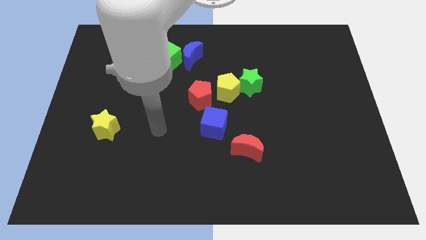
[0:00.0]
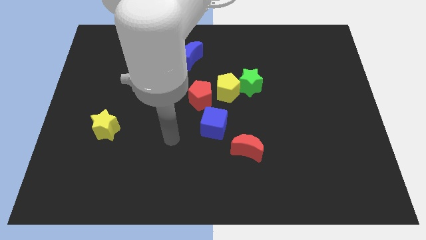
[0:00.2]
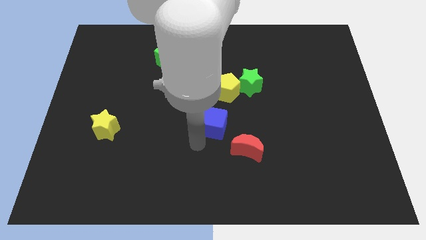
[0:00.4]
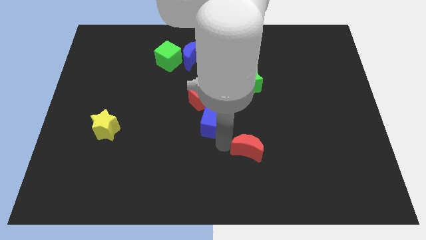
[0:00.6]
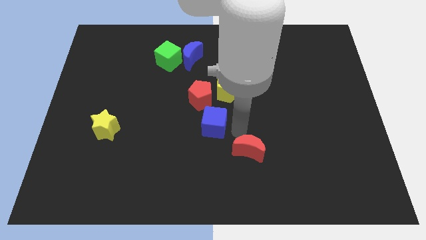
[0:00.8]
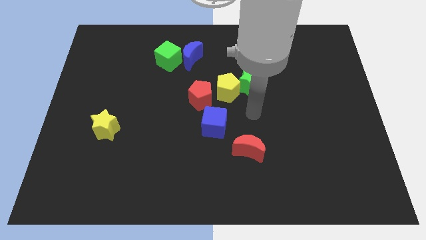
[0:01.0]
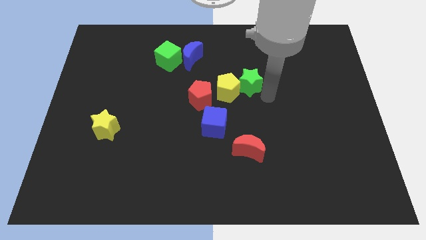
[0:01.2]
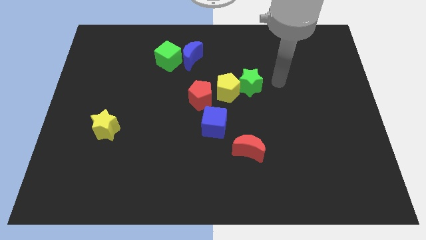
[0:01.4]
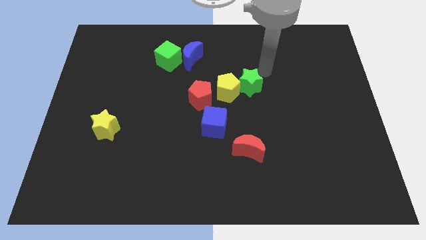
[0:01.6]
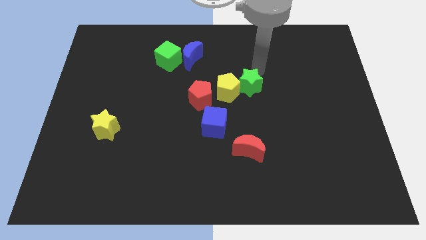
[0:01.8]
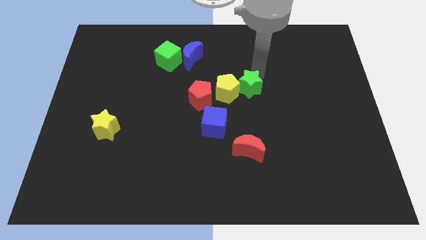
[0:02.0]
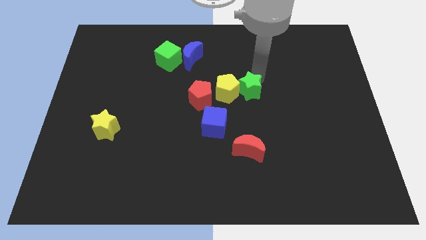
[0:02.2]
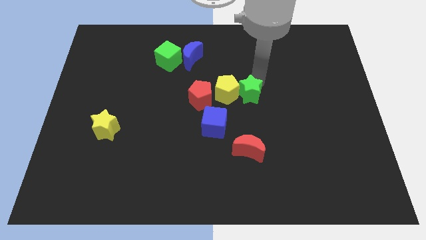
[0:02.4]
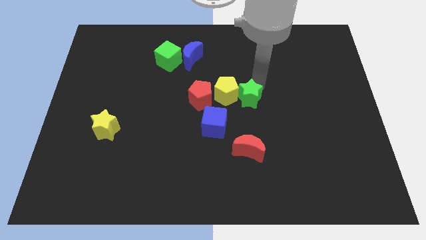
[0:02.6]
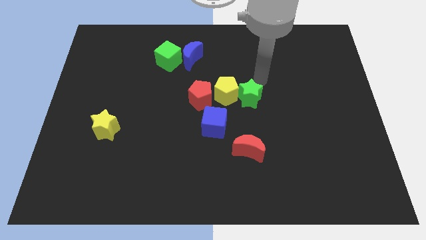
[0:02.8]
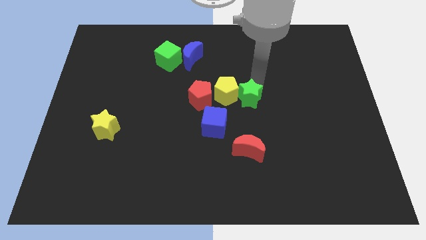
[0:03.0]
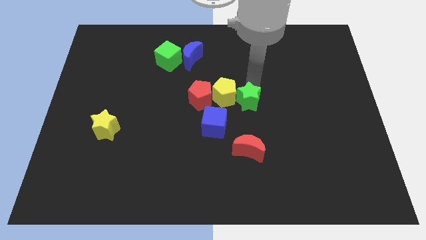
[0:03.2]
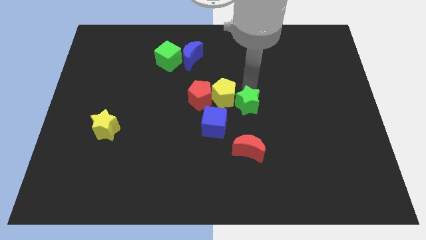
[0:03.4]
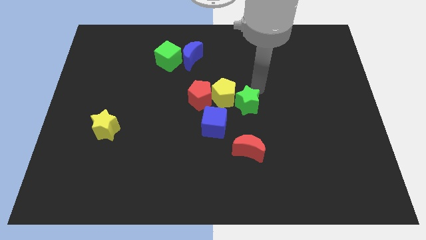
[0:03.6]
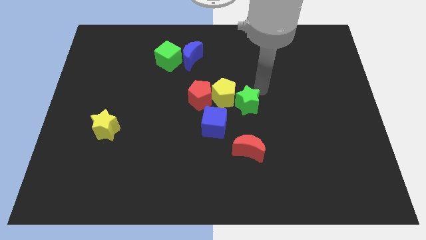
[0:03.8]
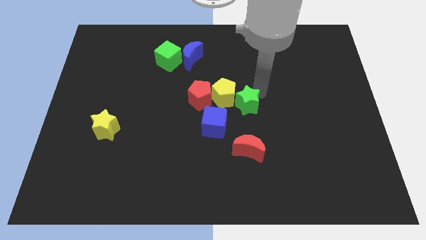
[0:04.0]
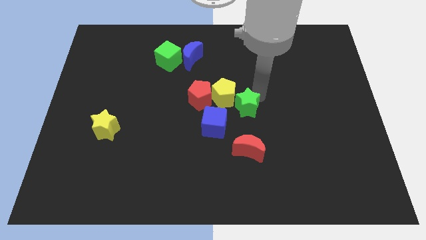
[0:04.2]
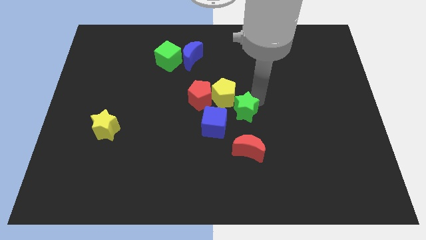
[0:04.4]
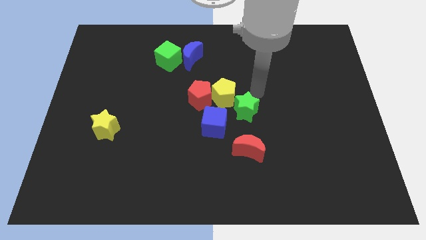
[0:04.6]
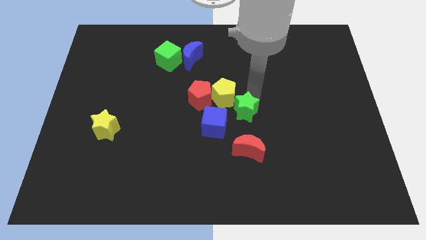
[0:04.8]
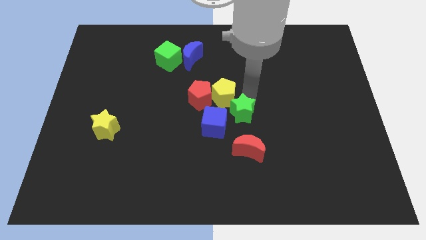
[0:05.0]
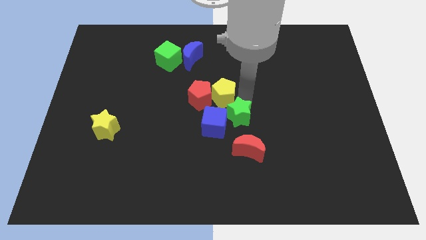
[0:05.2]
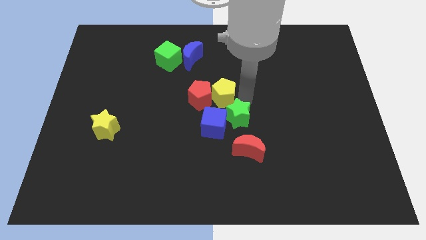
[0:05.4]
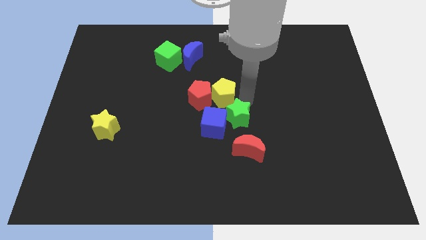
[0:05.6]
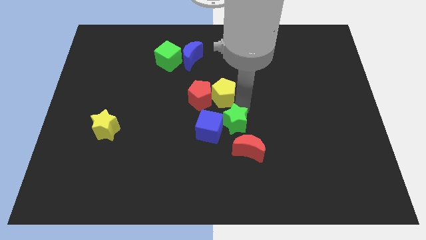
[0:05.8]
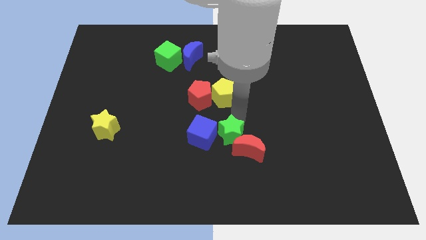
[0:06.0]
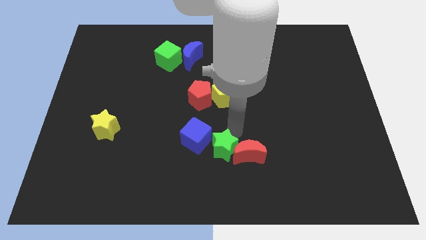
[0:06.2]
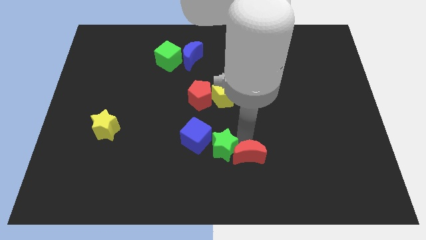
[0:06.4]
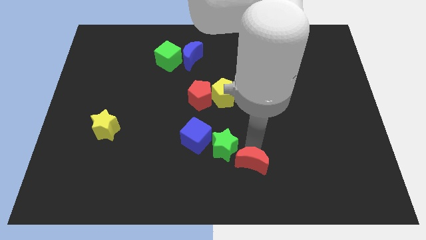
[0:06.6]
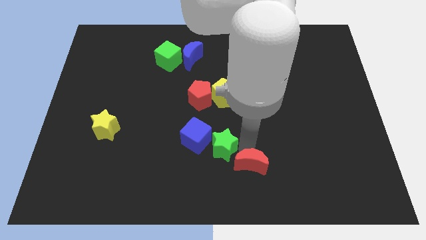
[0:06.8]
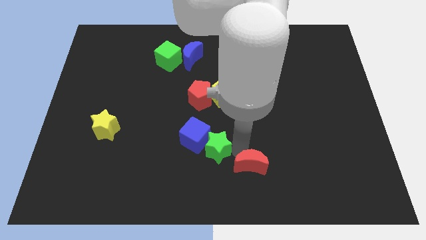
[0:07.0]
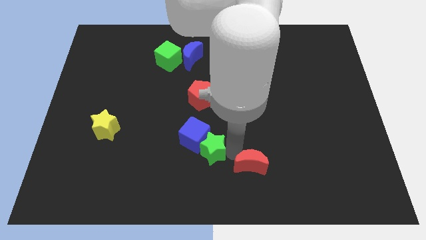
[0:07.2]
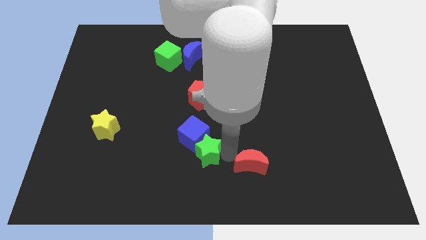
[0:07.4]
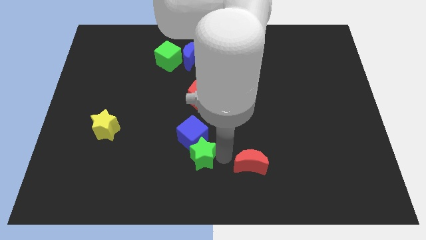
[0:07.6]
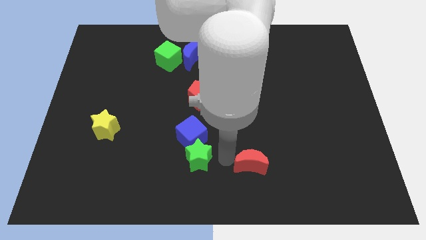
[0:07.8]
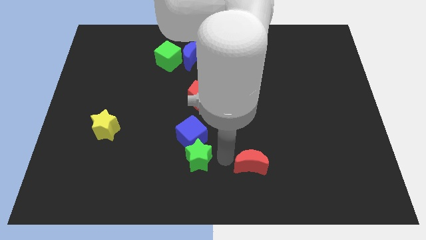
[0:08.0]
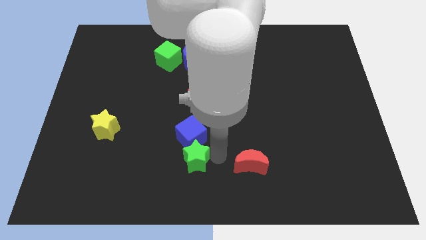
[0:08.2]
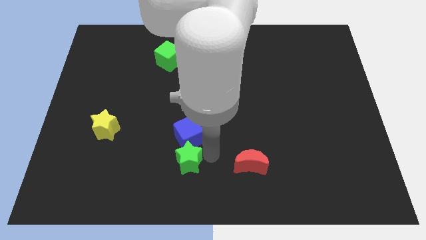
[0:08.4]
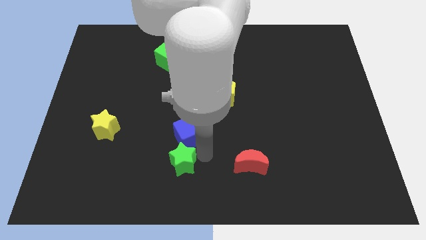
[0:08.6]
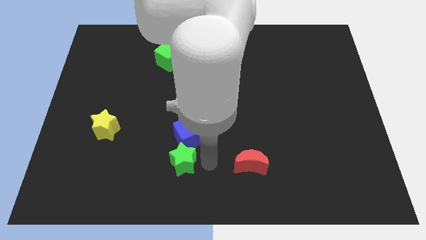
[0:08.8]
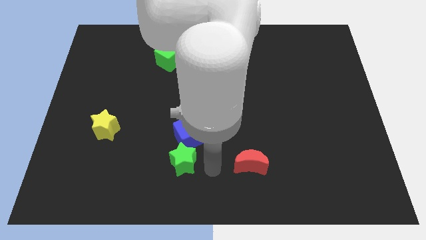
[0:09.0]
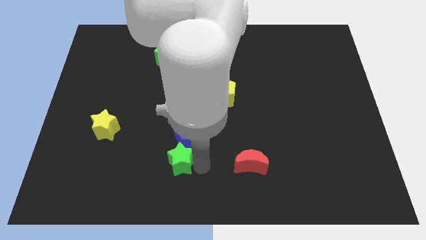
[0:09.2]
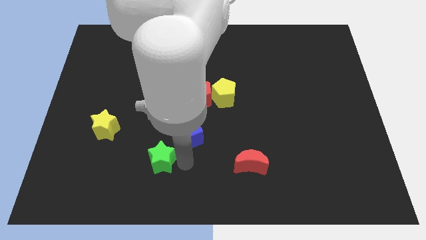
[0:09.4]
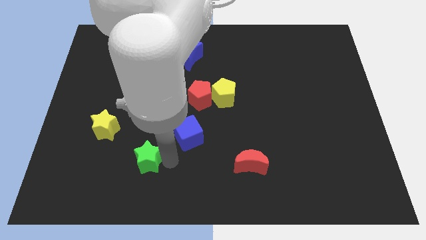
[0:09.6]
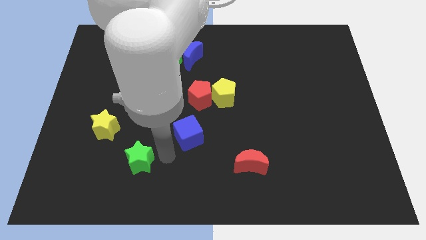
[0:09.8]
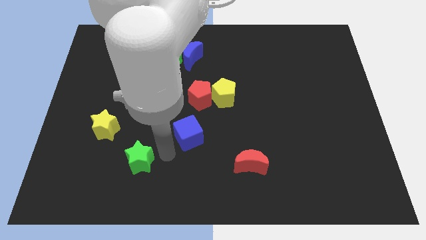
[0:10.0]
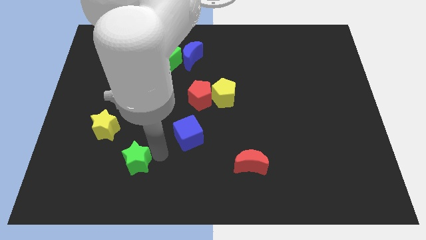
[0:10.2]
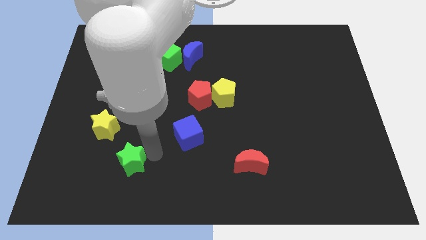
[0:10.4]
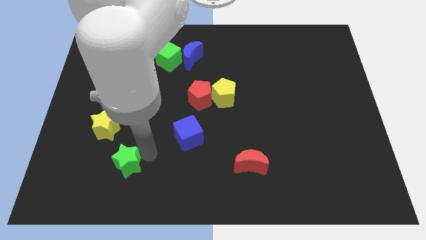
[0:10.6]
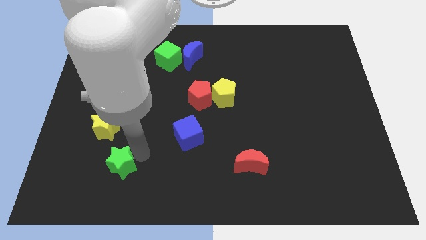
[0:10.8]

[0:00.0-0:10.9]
slide the green star below the yellow star

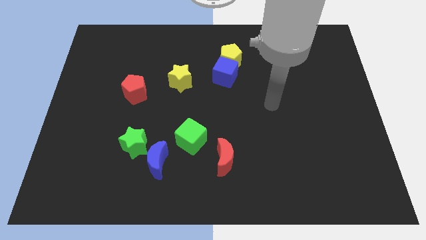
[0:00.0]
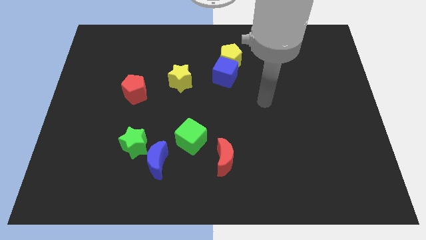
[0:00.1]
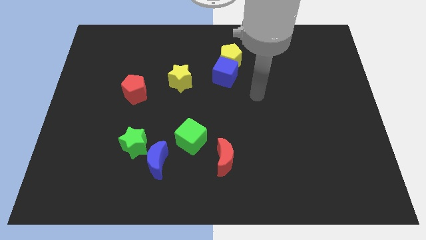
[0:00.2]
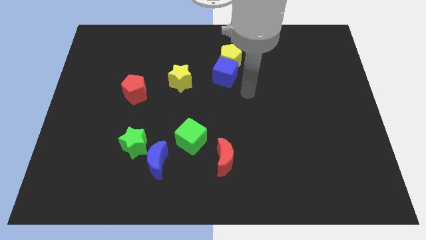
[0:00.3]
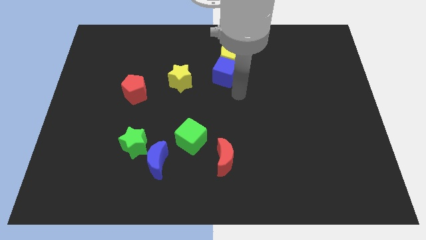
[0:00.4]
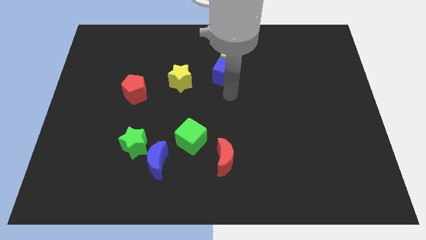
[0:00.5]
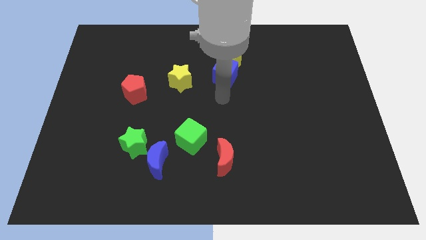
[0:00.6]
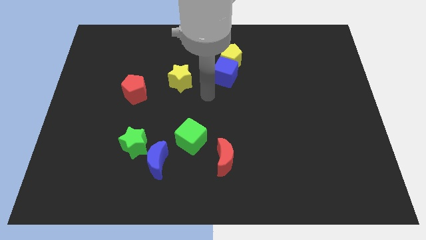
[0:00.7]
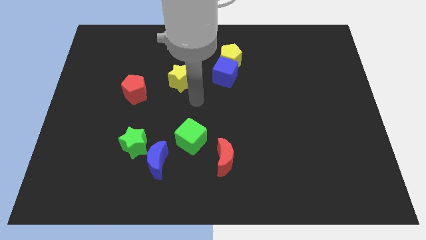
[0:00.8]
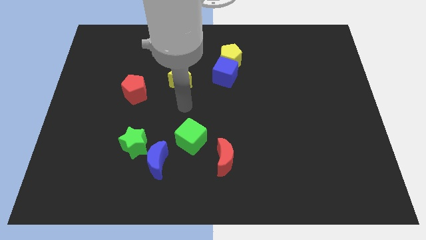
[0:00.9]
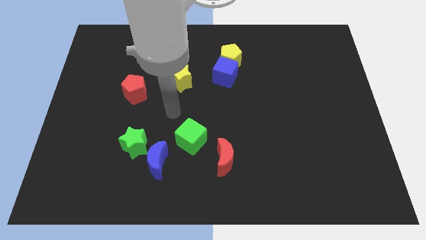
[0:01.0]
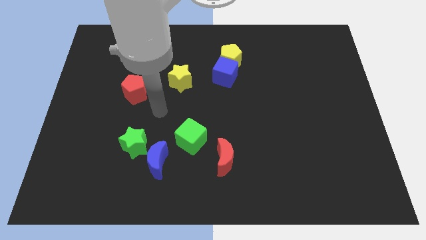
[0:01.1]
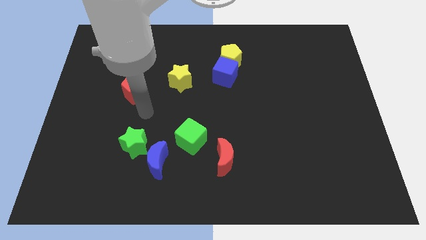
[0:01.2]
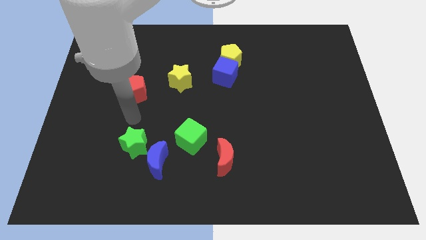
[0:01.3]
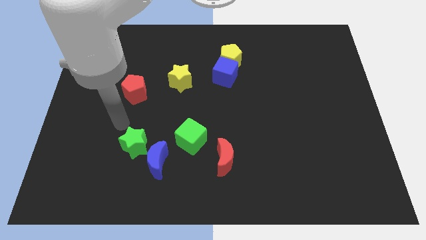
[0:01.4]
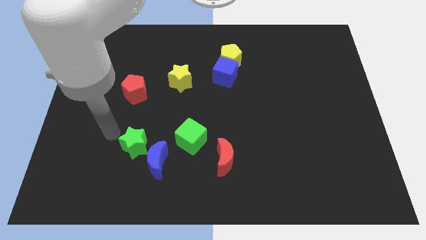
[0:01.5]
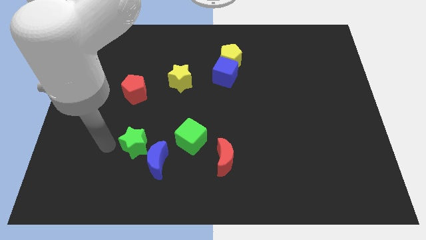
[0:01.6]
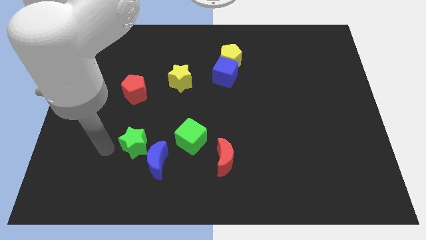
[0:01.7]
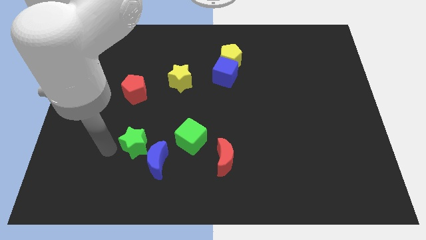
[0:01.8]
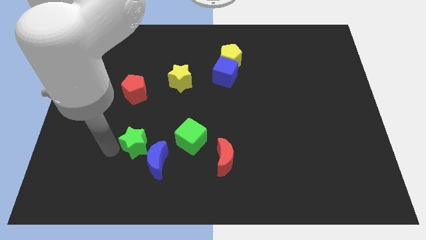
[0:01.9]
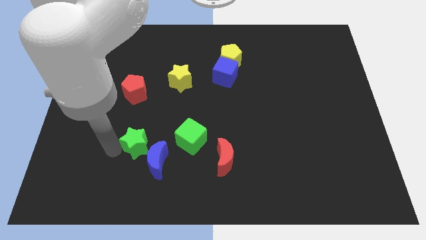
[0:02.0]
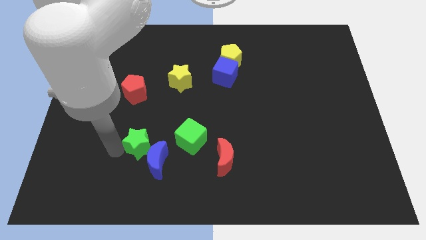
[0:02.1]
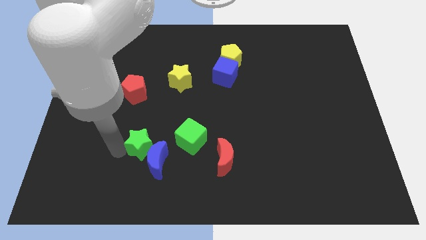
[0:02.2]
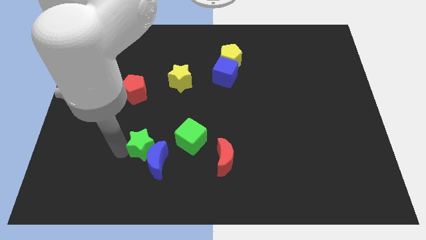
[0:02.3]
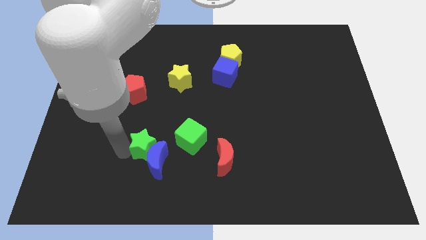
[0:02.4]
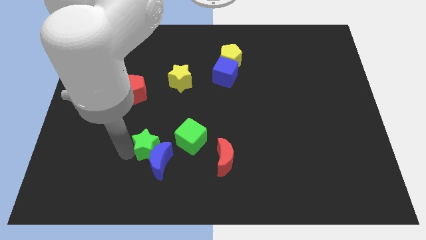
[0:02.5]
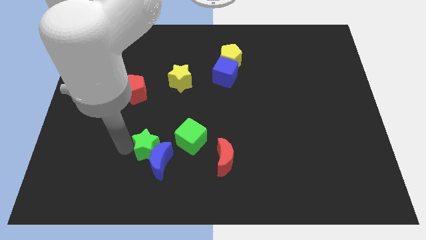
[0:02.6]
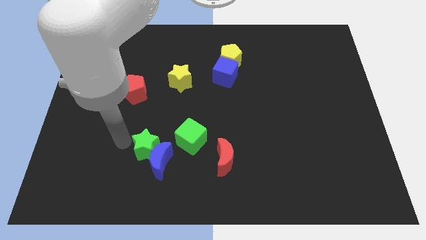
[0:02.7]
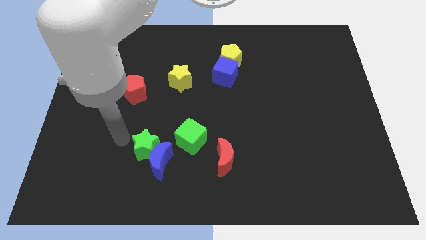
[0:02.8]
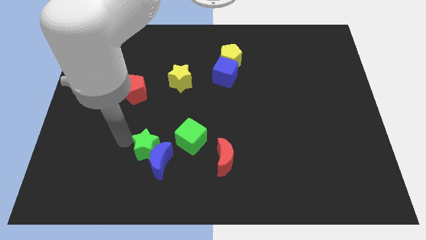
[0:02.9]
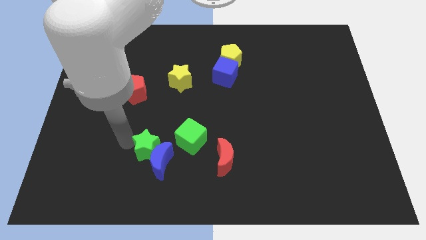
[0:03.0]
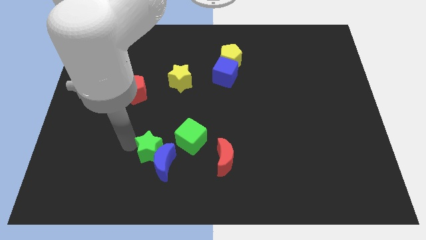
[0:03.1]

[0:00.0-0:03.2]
move the green star to the left of the red moon
